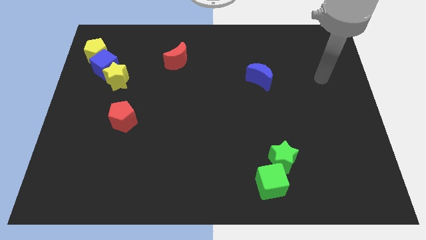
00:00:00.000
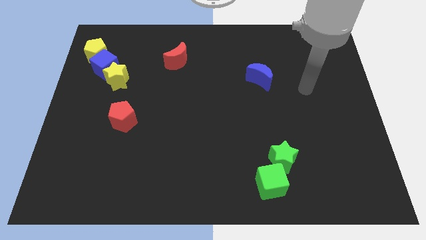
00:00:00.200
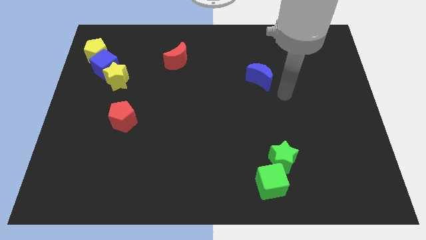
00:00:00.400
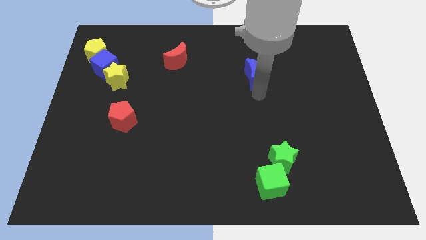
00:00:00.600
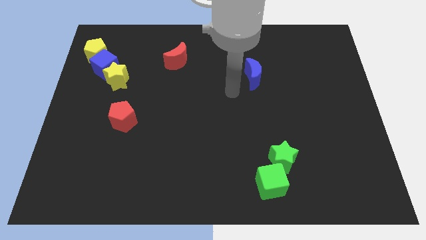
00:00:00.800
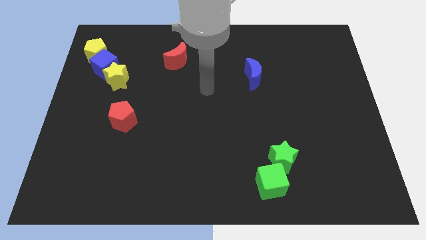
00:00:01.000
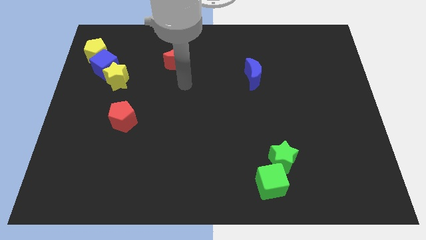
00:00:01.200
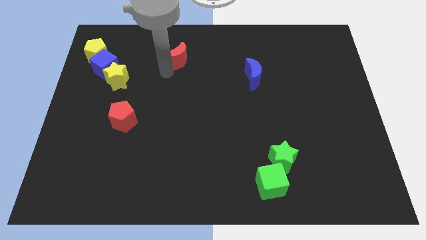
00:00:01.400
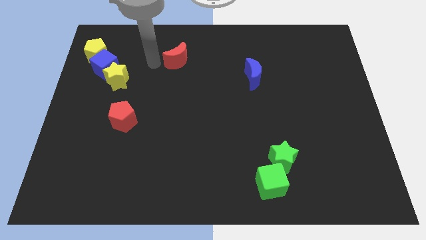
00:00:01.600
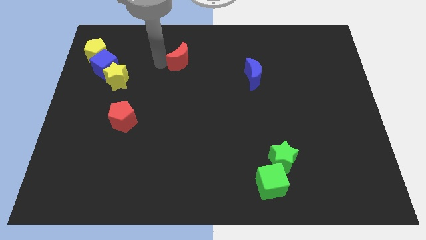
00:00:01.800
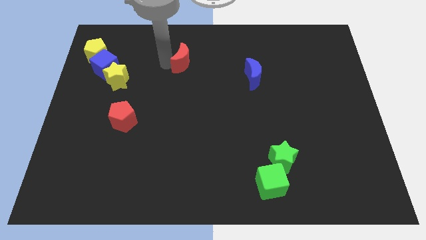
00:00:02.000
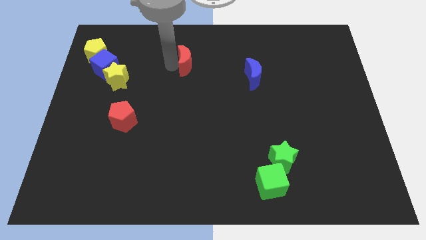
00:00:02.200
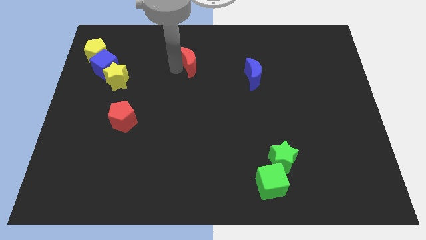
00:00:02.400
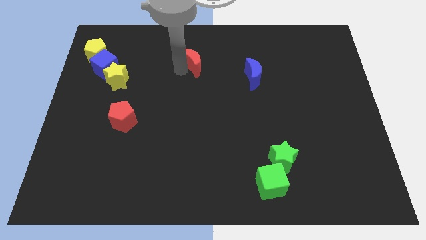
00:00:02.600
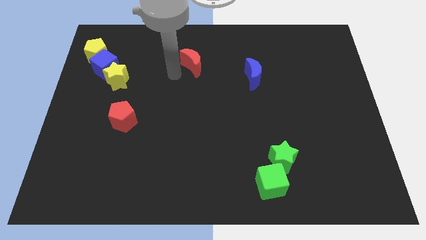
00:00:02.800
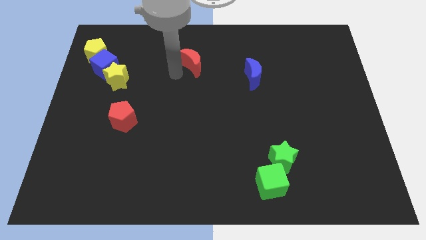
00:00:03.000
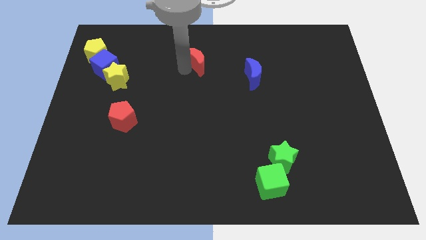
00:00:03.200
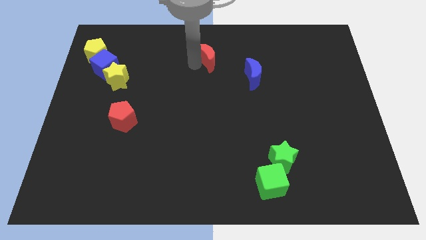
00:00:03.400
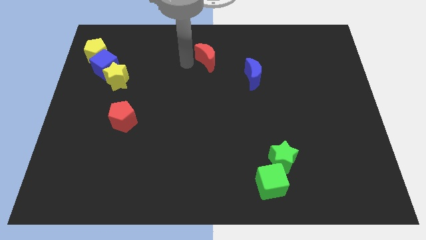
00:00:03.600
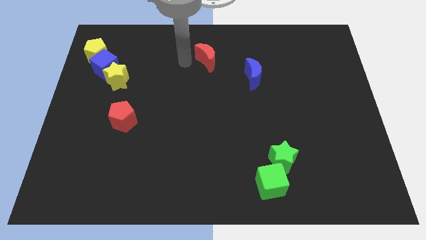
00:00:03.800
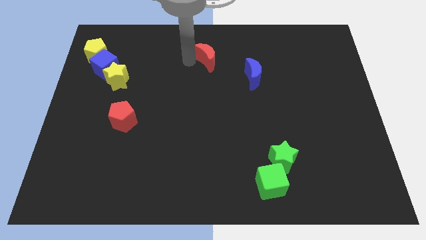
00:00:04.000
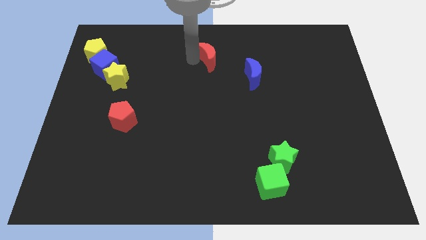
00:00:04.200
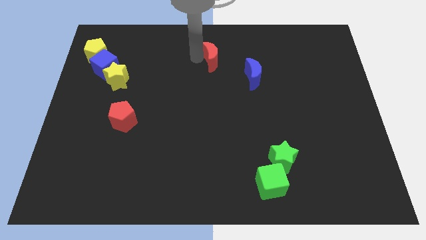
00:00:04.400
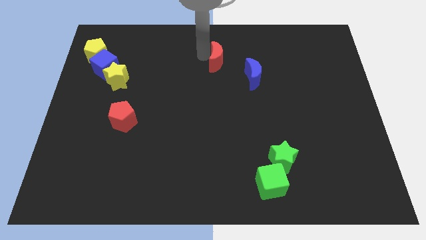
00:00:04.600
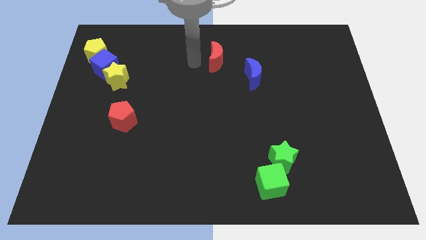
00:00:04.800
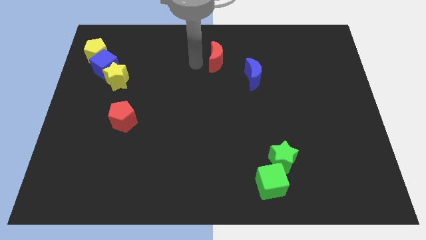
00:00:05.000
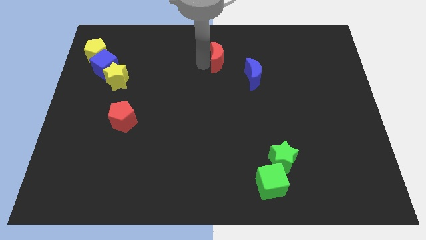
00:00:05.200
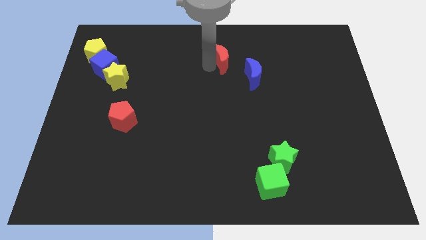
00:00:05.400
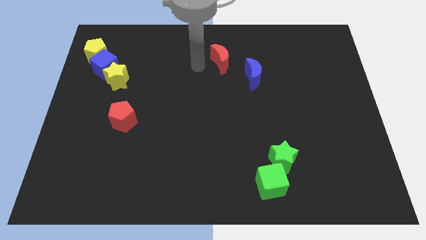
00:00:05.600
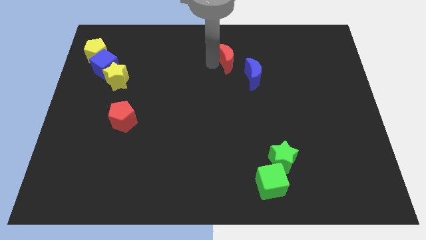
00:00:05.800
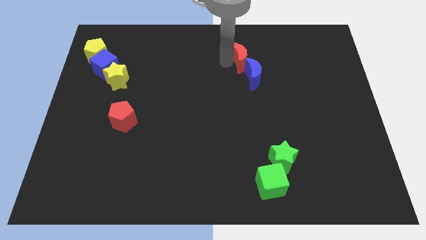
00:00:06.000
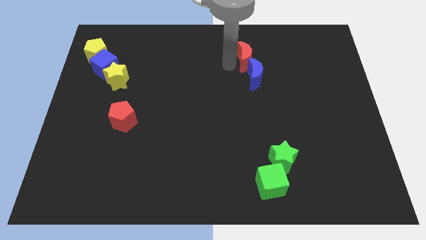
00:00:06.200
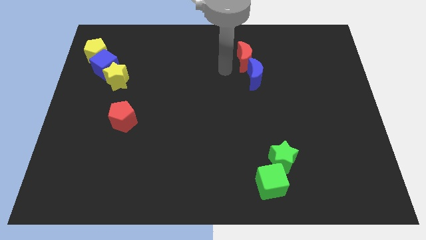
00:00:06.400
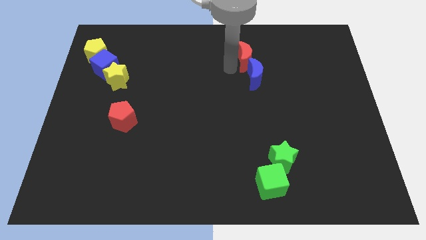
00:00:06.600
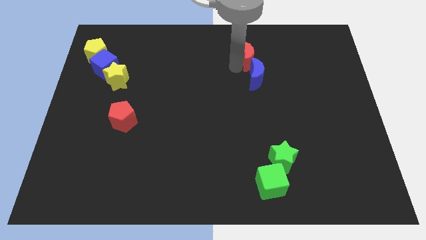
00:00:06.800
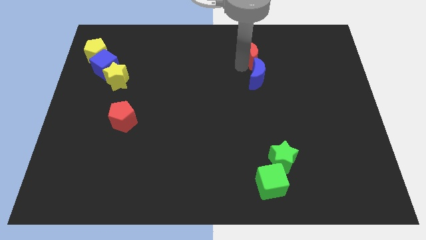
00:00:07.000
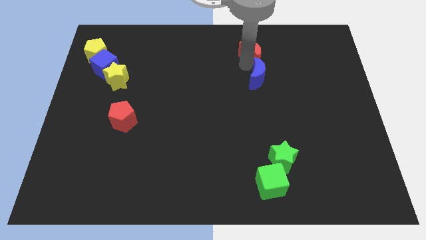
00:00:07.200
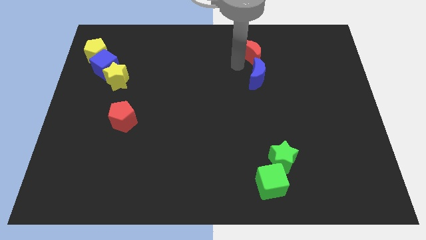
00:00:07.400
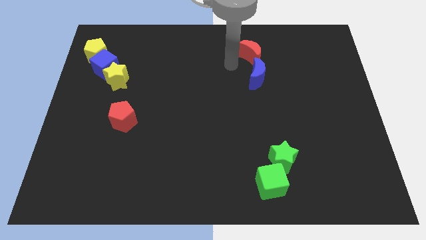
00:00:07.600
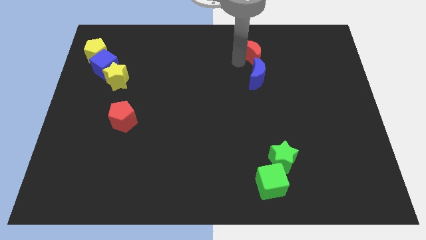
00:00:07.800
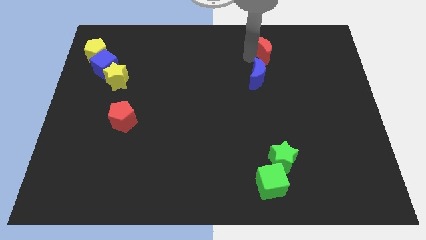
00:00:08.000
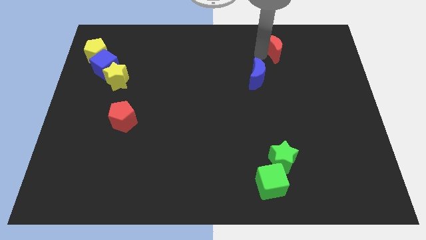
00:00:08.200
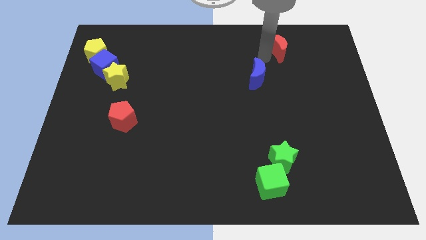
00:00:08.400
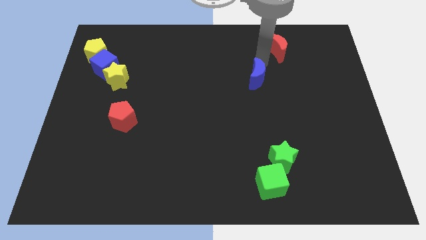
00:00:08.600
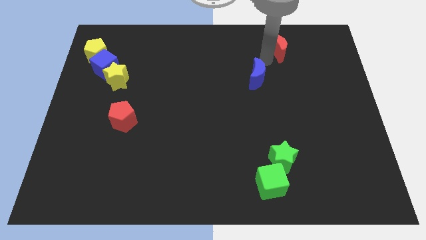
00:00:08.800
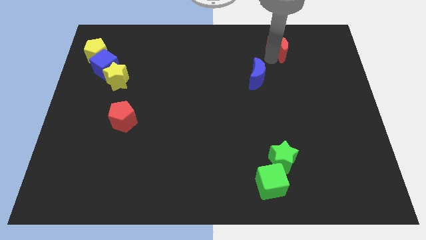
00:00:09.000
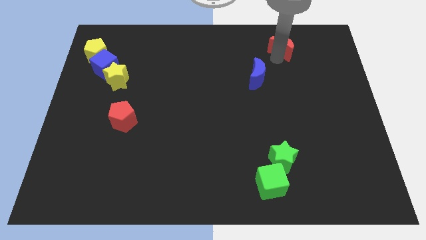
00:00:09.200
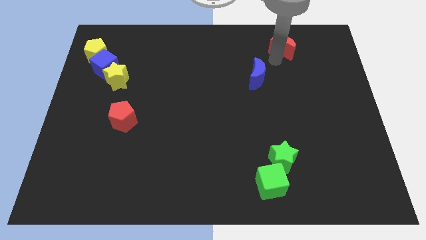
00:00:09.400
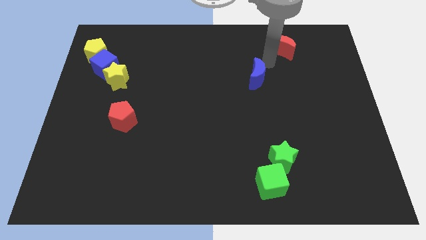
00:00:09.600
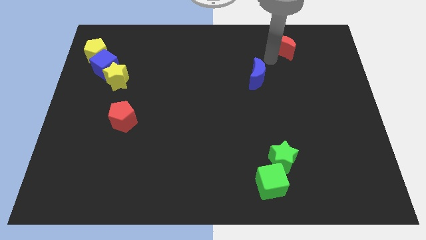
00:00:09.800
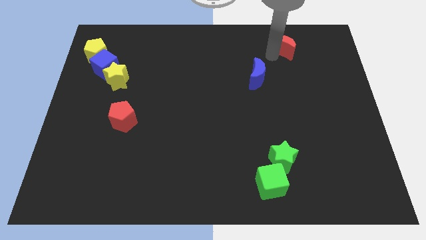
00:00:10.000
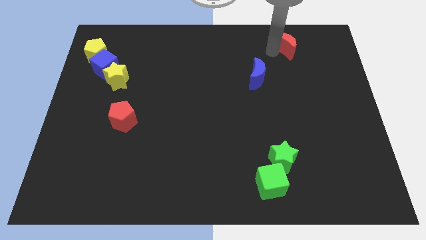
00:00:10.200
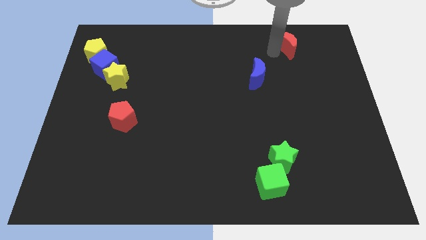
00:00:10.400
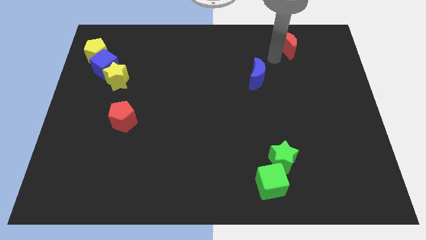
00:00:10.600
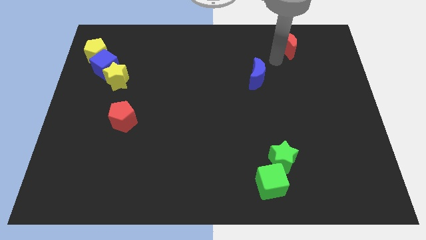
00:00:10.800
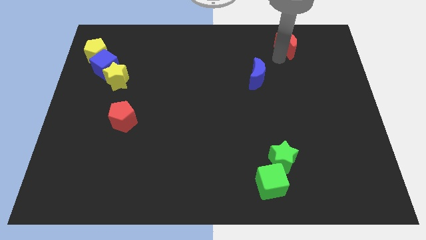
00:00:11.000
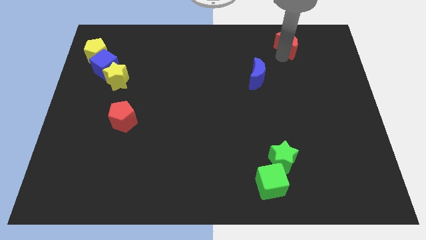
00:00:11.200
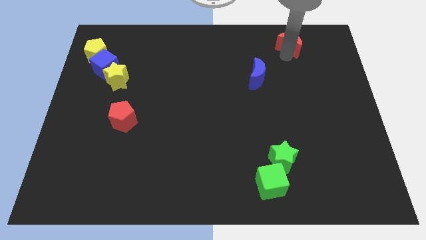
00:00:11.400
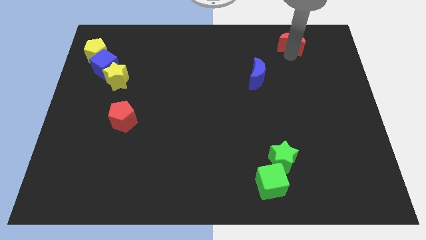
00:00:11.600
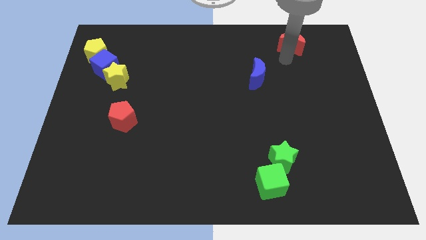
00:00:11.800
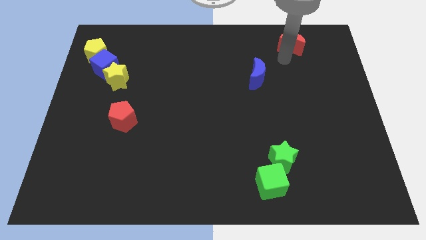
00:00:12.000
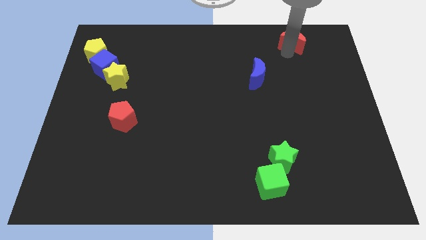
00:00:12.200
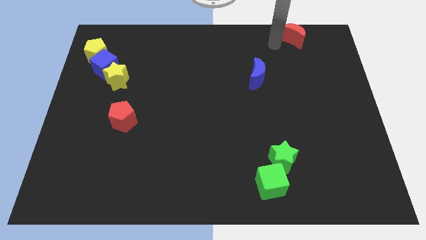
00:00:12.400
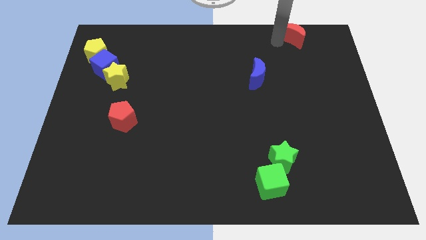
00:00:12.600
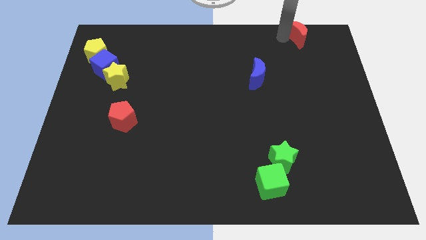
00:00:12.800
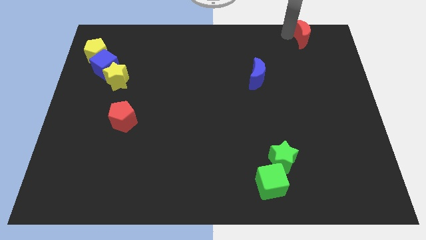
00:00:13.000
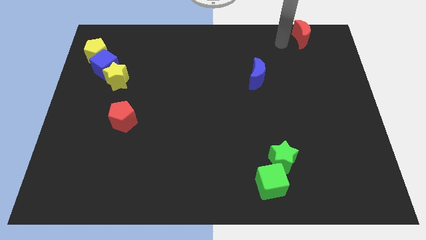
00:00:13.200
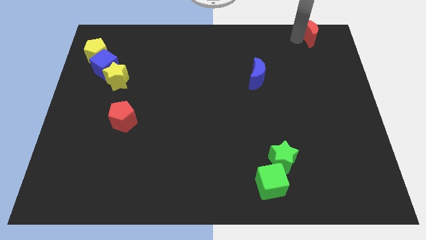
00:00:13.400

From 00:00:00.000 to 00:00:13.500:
push the red moon to the upper right corner
